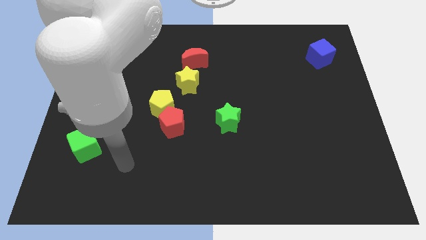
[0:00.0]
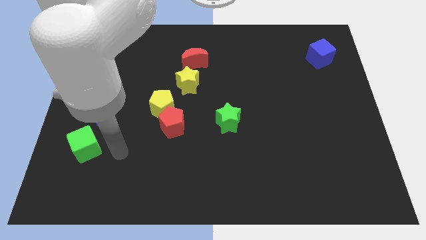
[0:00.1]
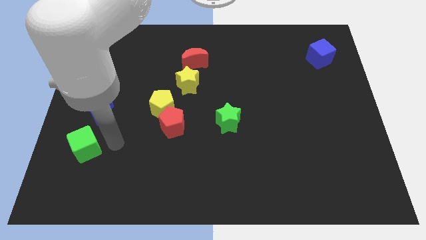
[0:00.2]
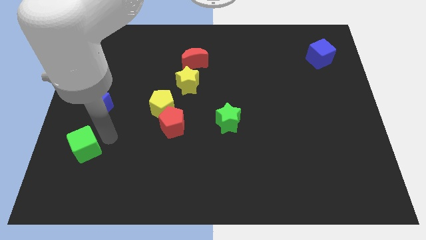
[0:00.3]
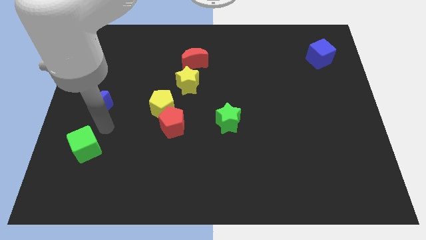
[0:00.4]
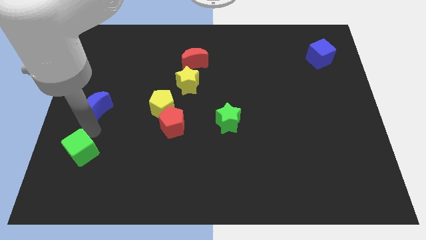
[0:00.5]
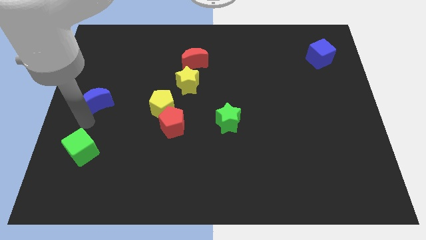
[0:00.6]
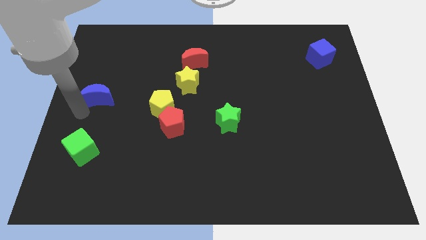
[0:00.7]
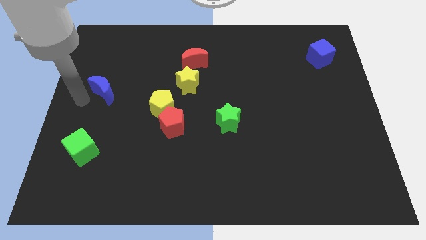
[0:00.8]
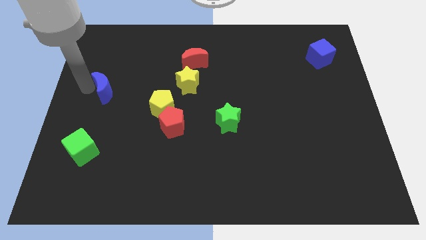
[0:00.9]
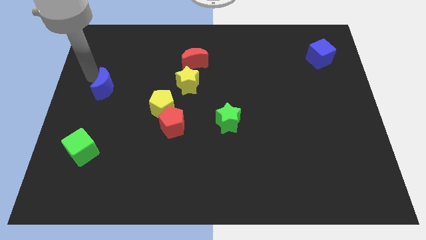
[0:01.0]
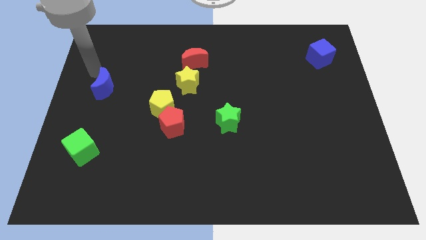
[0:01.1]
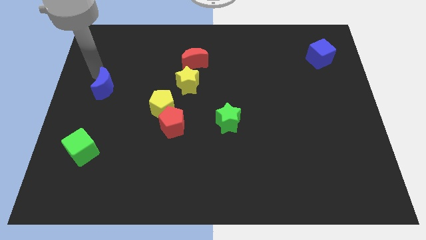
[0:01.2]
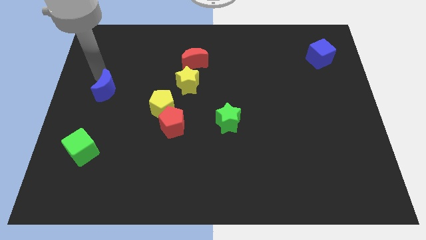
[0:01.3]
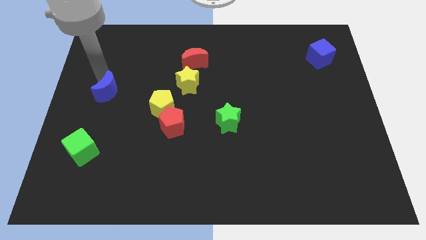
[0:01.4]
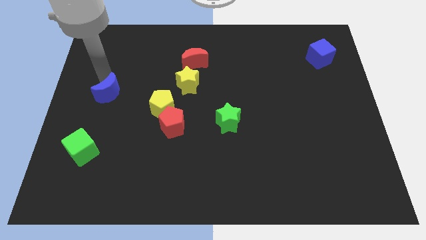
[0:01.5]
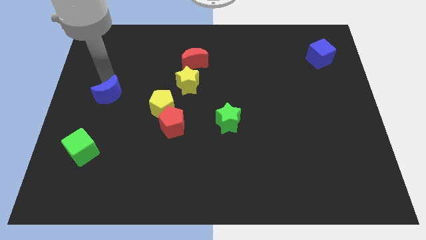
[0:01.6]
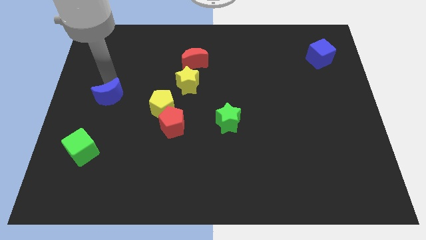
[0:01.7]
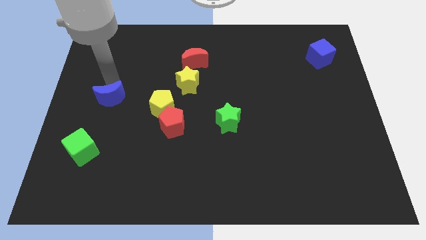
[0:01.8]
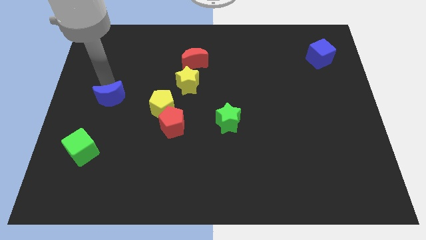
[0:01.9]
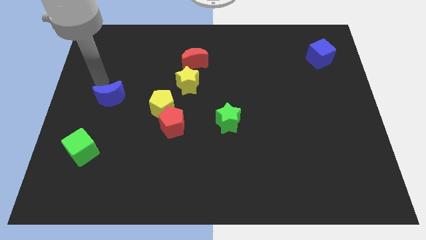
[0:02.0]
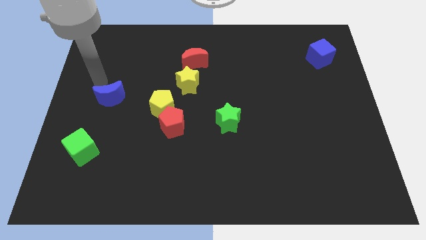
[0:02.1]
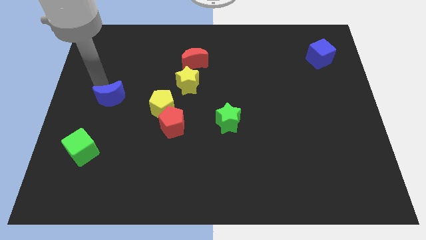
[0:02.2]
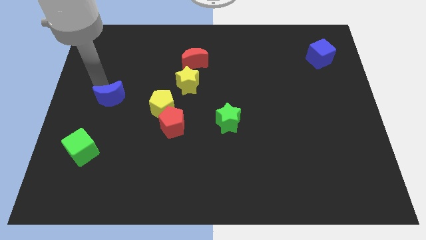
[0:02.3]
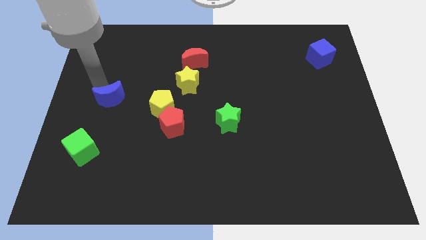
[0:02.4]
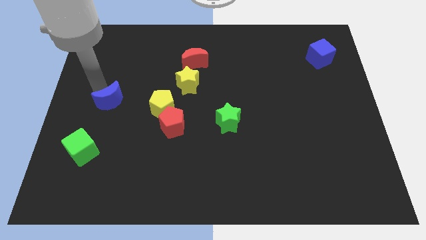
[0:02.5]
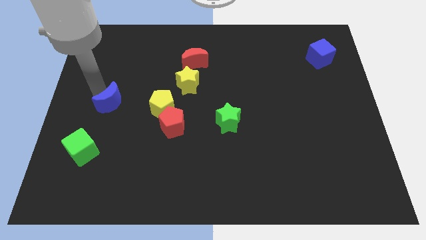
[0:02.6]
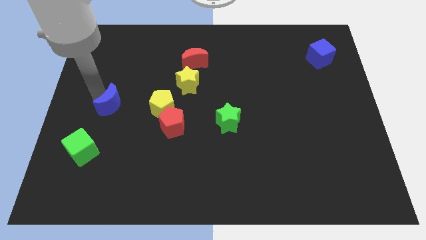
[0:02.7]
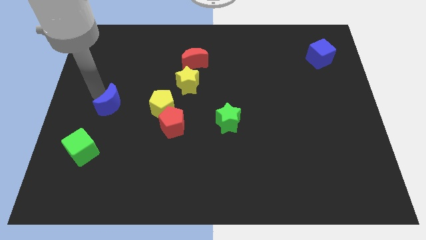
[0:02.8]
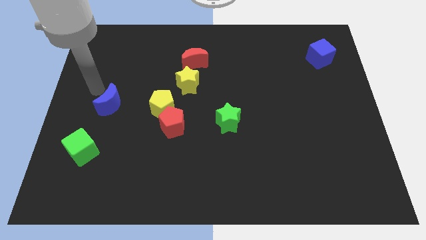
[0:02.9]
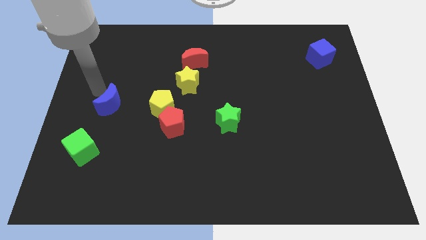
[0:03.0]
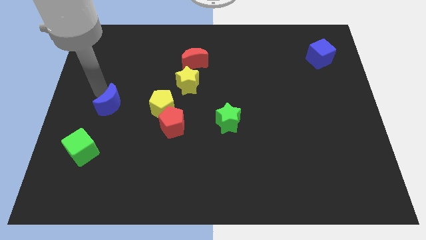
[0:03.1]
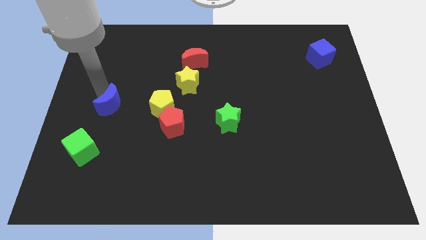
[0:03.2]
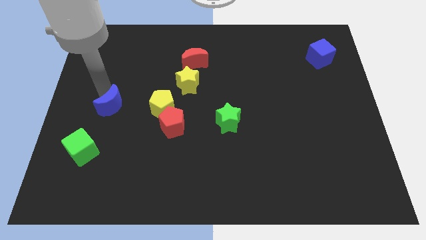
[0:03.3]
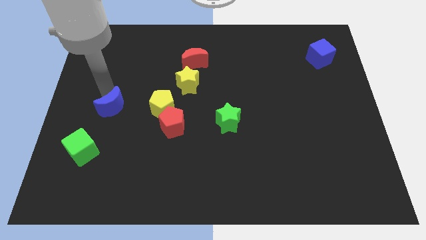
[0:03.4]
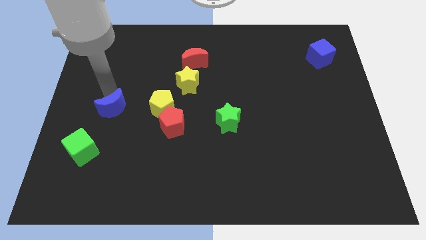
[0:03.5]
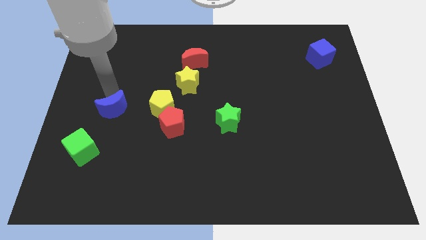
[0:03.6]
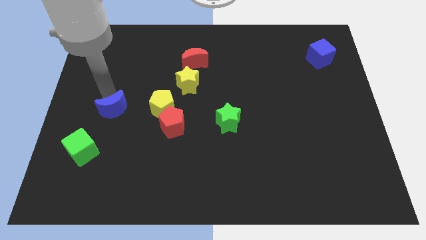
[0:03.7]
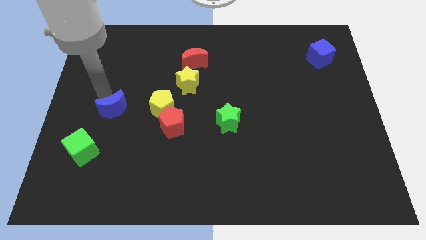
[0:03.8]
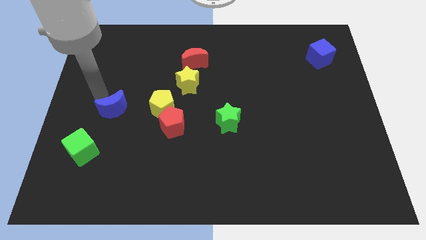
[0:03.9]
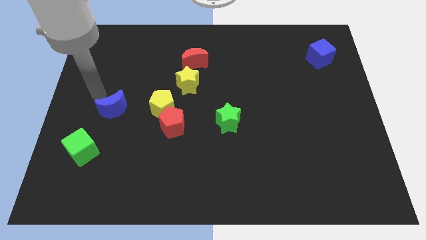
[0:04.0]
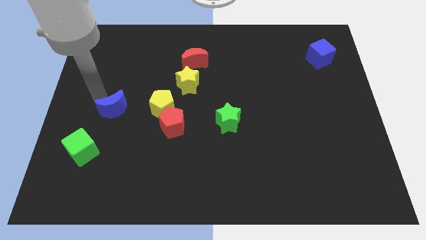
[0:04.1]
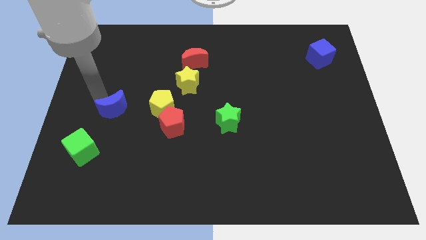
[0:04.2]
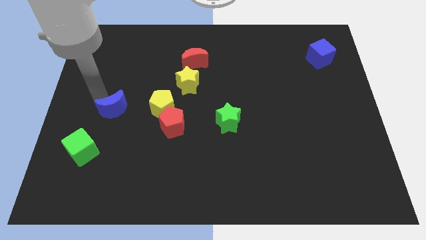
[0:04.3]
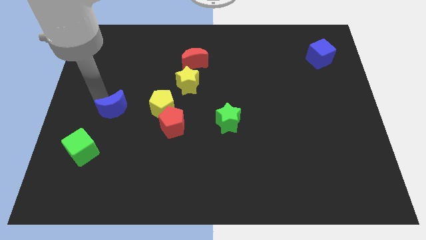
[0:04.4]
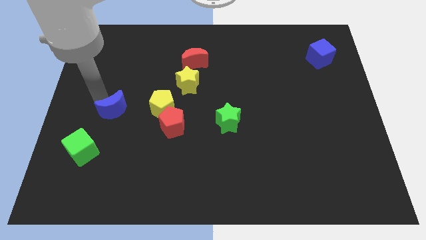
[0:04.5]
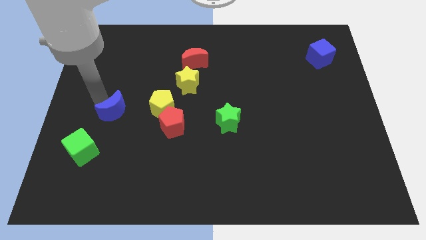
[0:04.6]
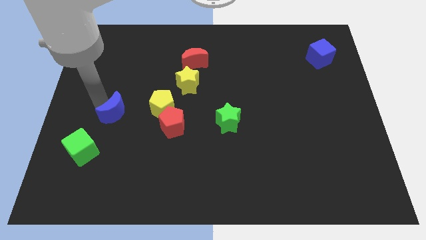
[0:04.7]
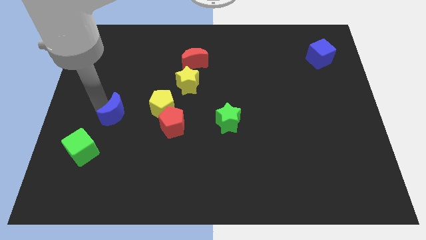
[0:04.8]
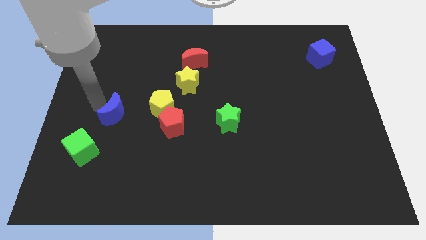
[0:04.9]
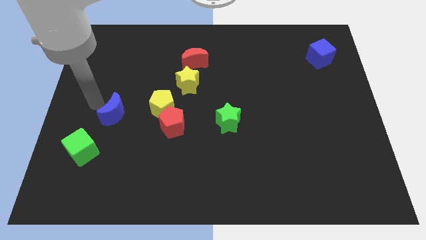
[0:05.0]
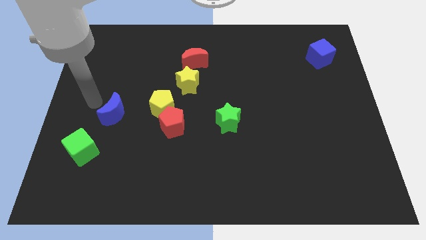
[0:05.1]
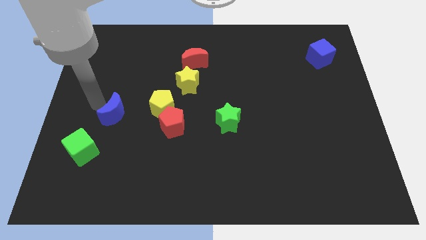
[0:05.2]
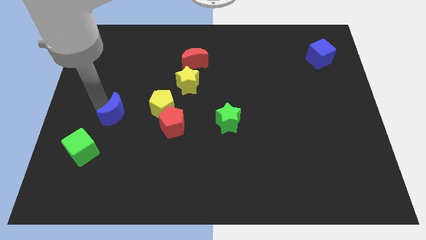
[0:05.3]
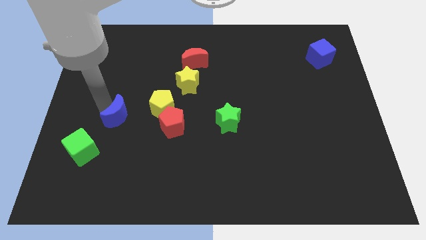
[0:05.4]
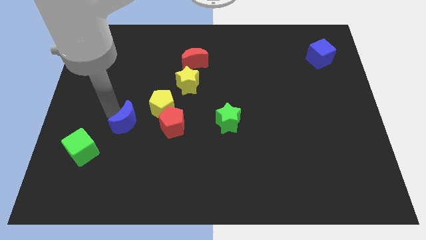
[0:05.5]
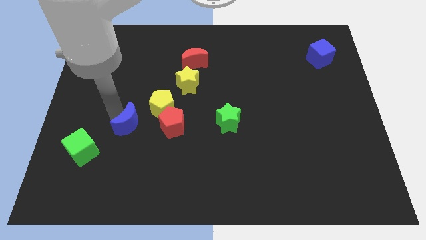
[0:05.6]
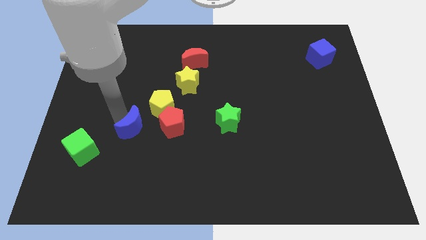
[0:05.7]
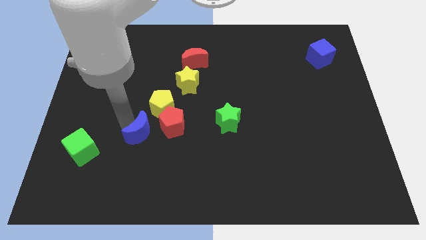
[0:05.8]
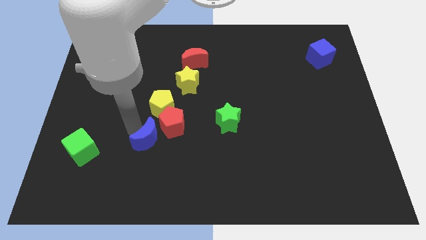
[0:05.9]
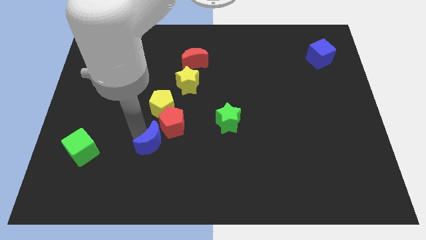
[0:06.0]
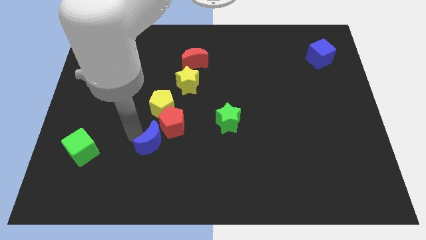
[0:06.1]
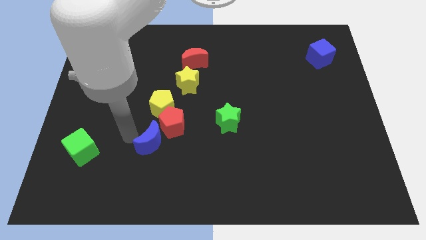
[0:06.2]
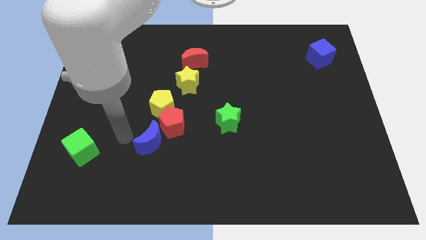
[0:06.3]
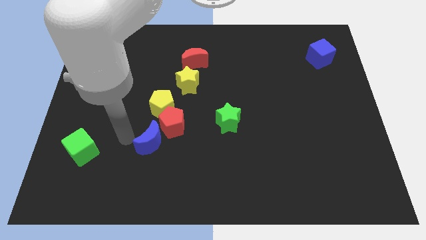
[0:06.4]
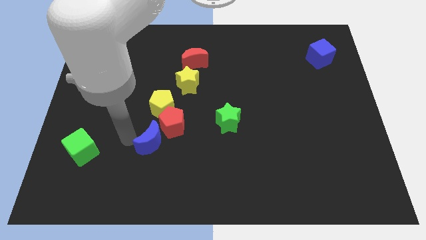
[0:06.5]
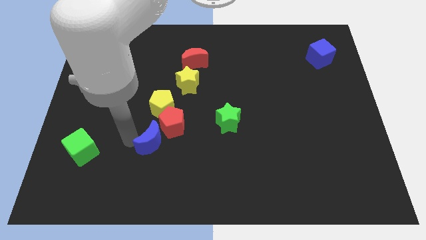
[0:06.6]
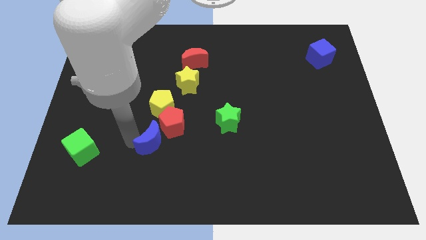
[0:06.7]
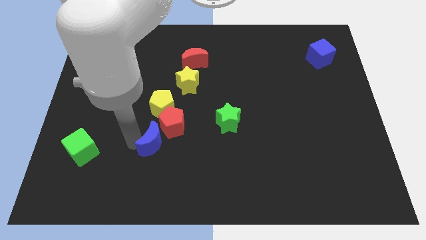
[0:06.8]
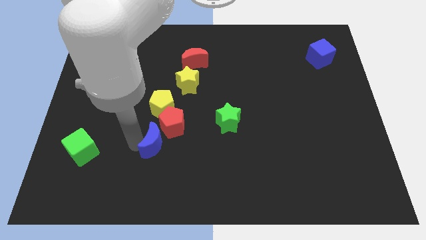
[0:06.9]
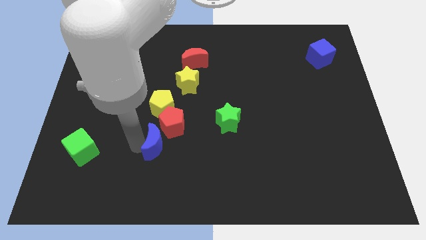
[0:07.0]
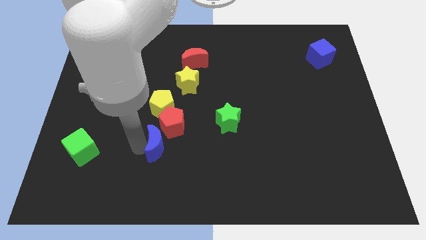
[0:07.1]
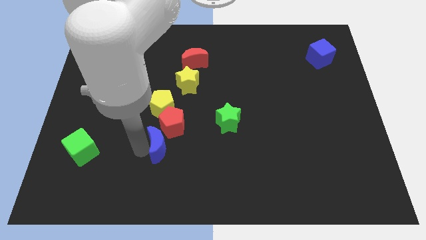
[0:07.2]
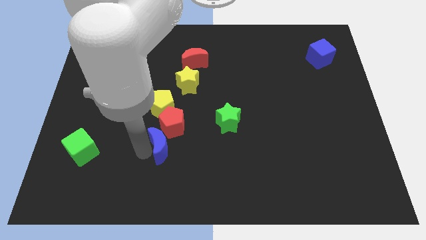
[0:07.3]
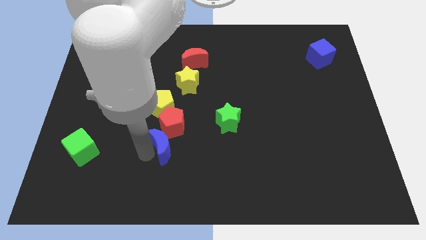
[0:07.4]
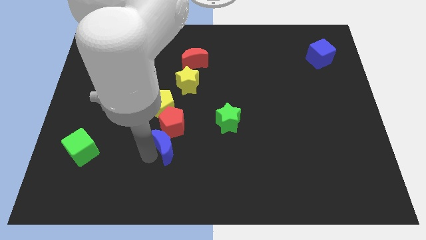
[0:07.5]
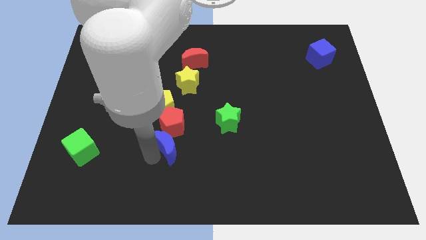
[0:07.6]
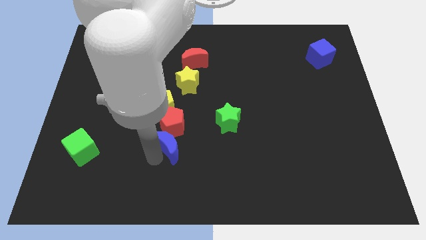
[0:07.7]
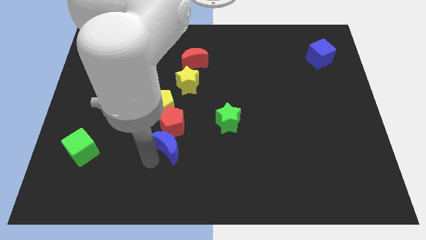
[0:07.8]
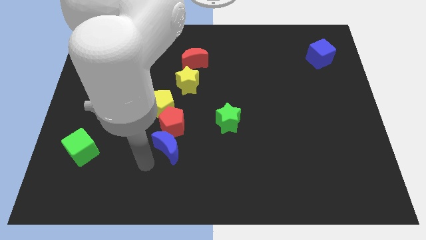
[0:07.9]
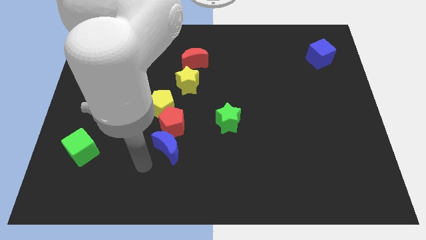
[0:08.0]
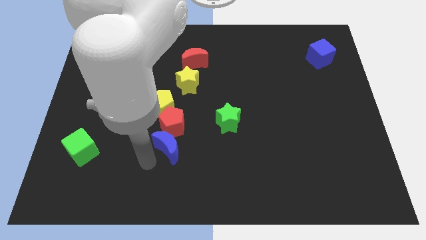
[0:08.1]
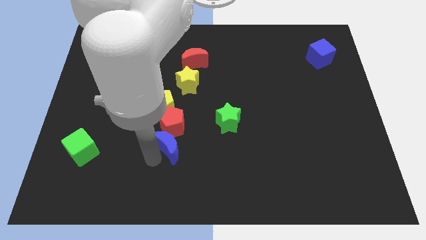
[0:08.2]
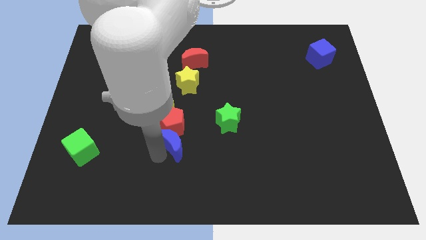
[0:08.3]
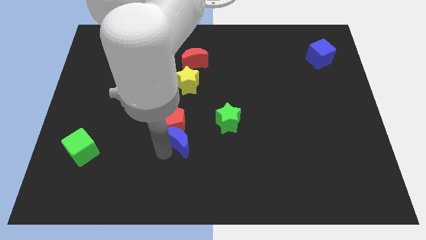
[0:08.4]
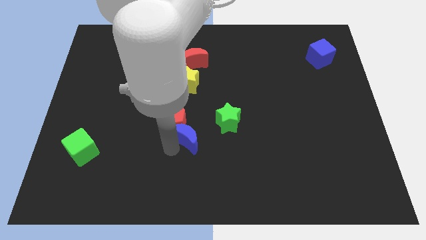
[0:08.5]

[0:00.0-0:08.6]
slide the blue moon to the center of the board
